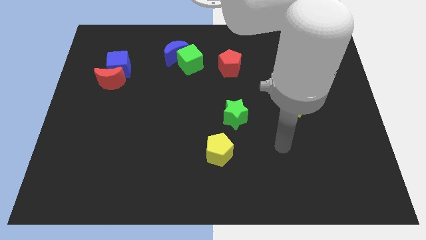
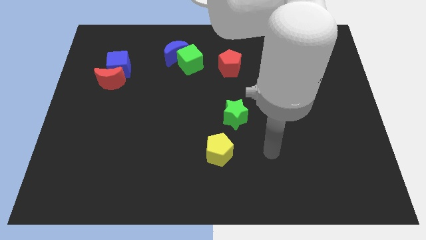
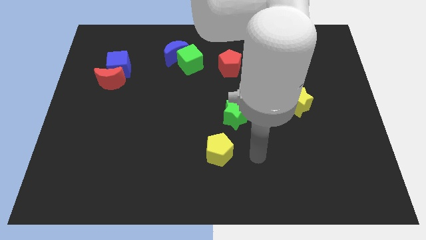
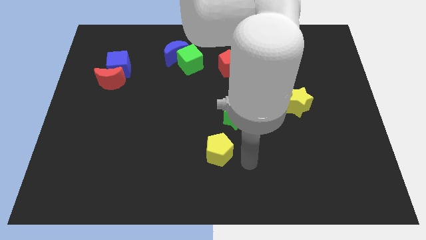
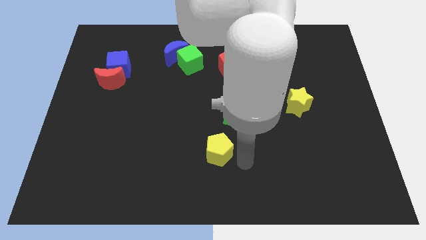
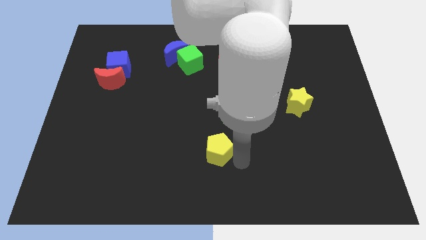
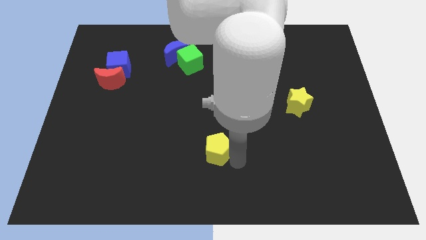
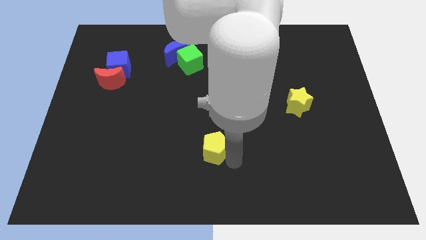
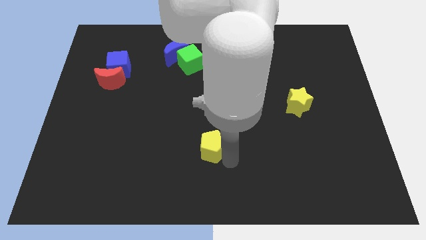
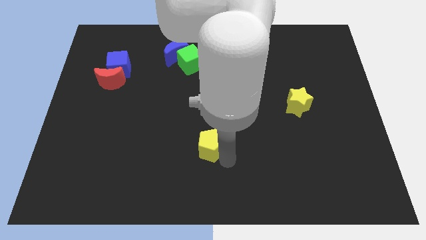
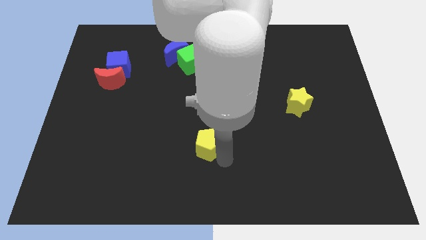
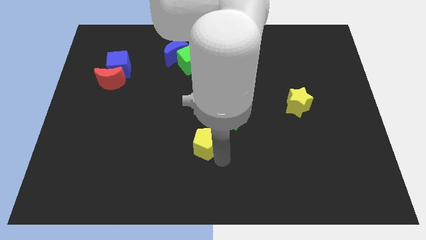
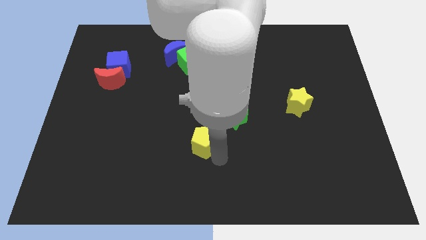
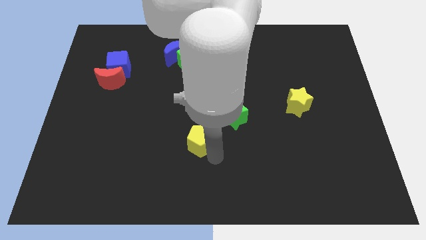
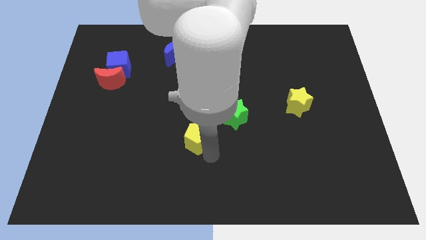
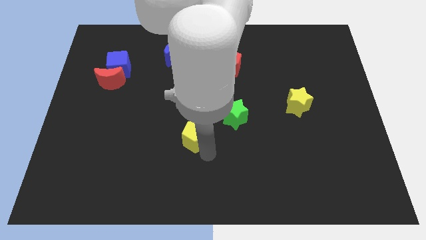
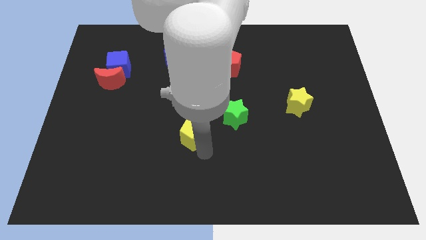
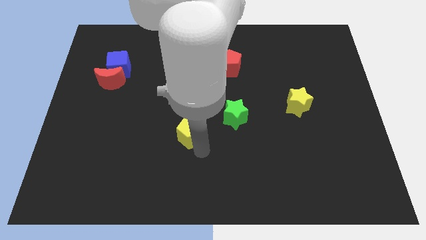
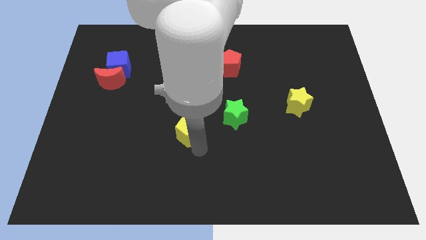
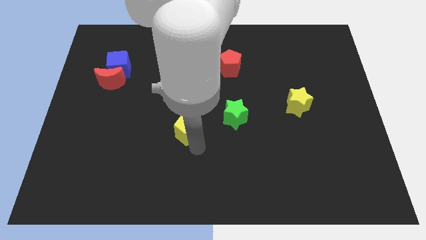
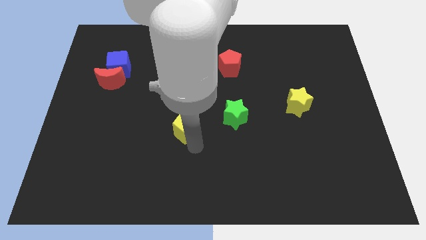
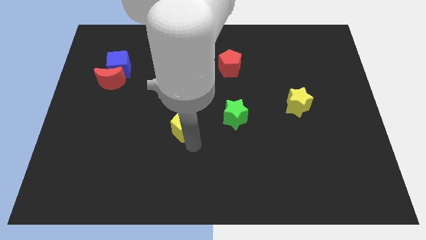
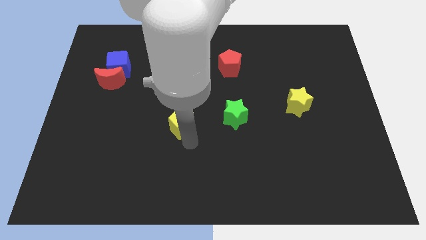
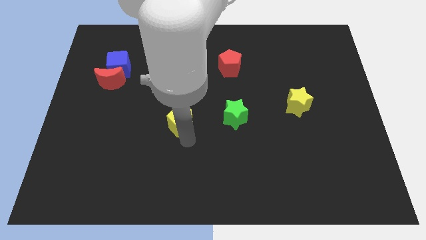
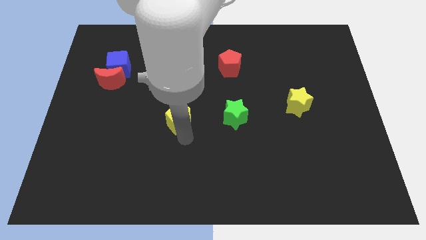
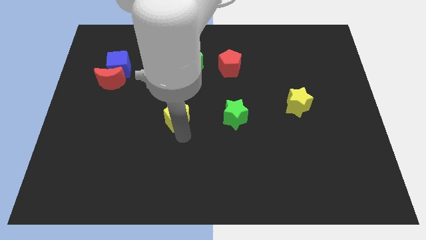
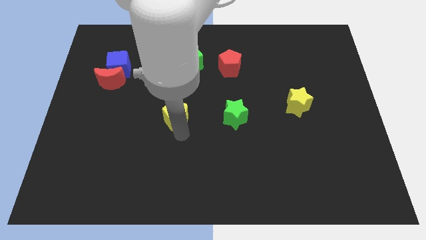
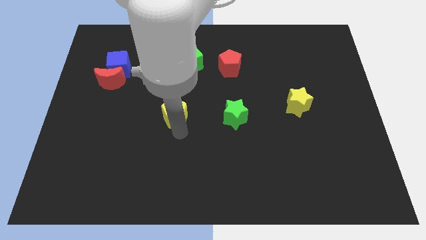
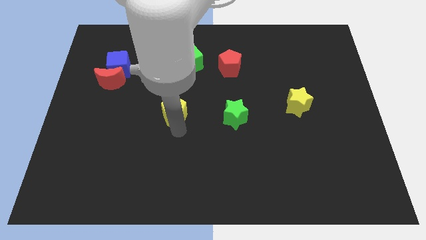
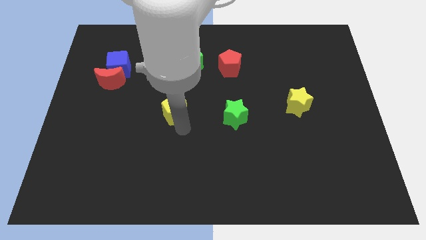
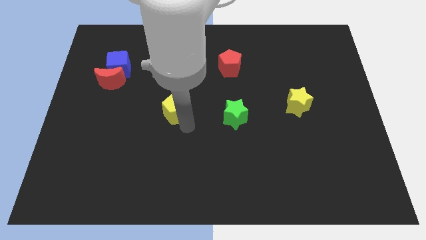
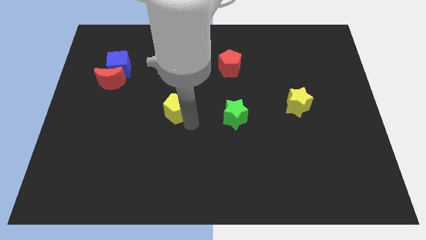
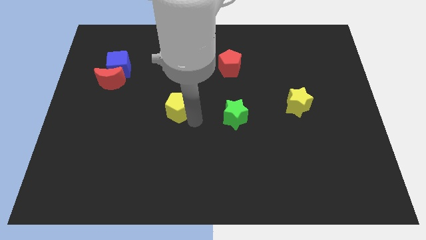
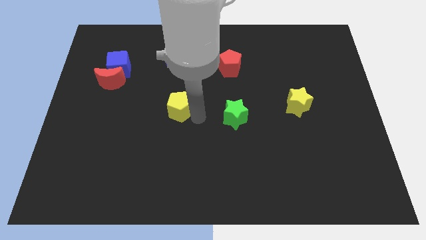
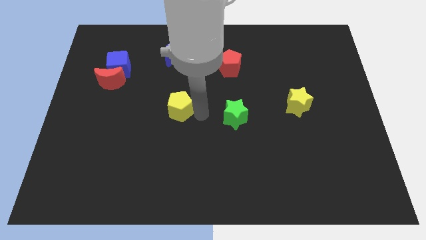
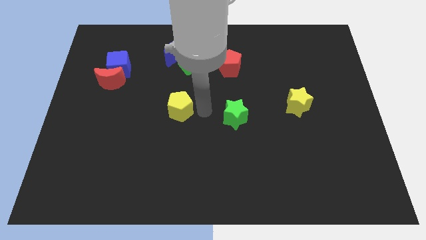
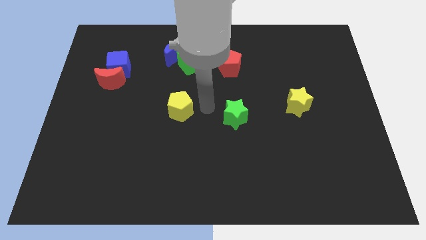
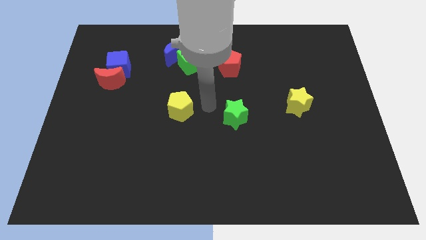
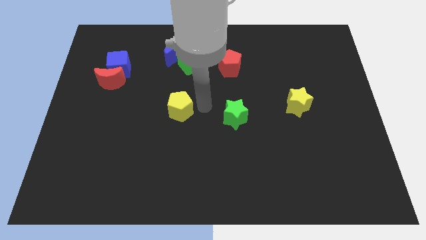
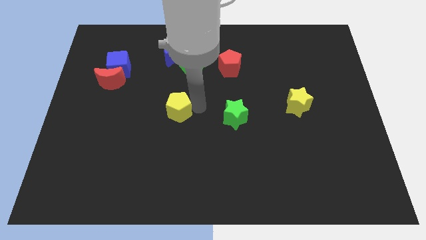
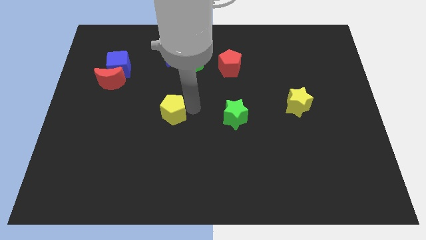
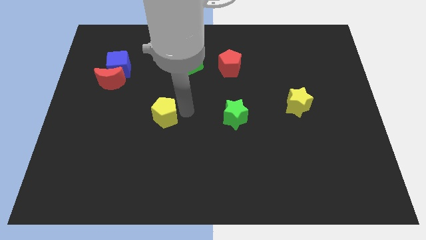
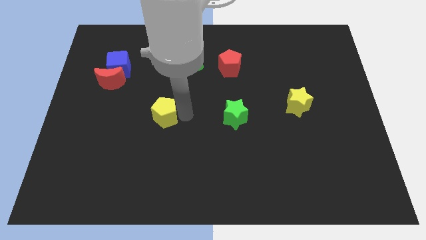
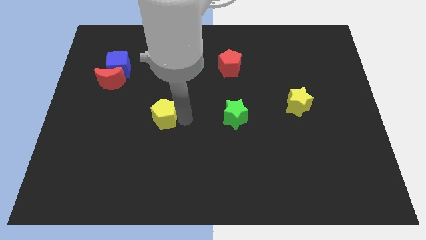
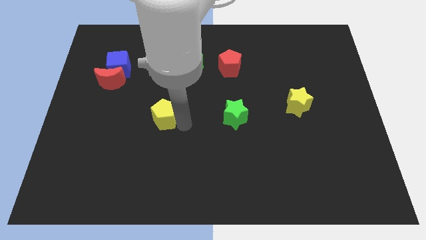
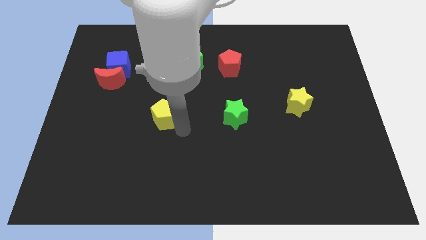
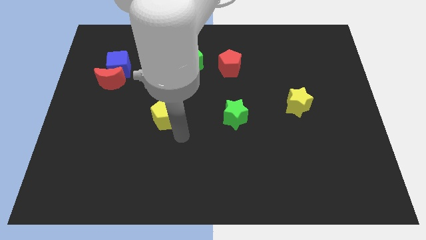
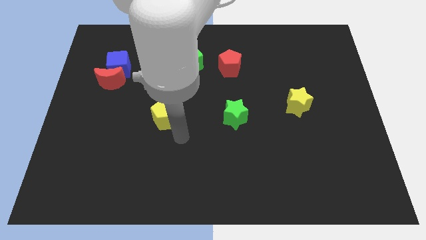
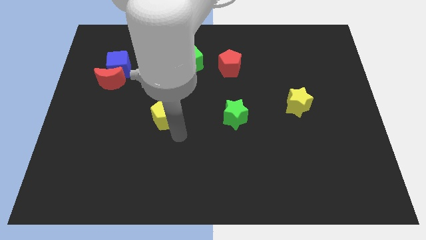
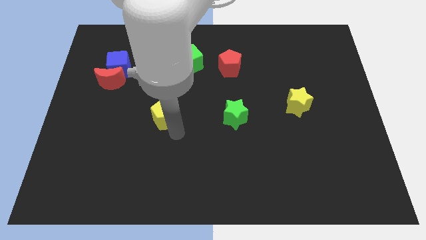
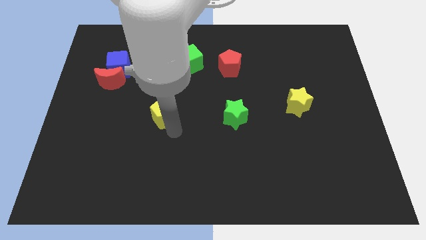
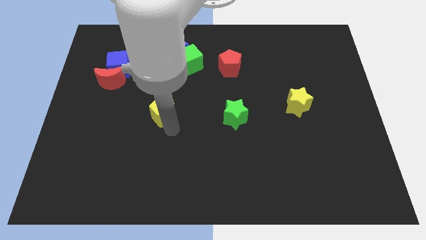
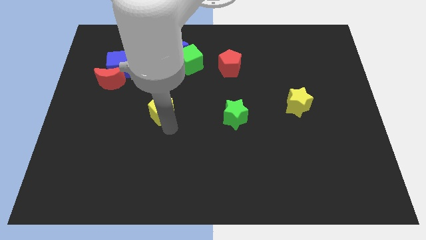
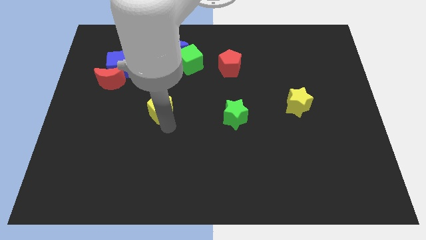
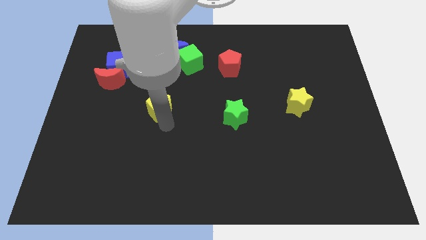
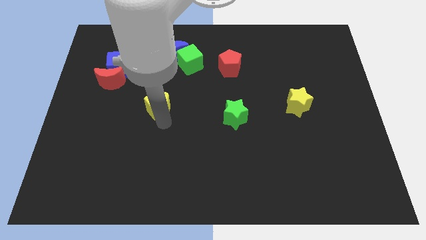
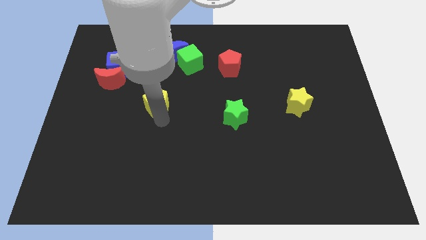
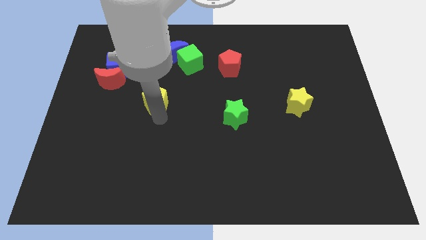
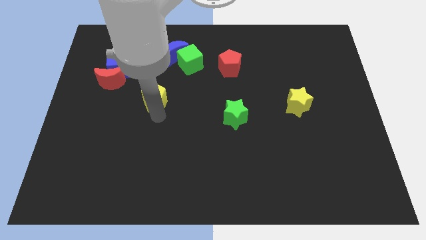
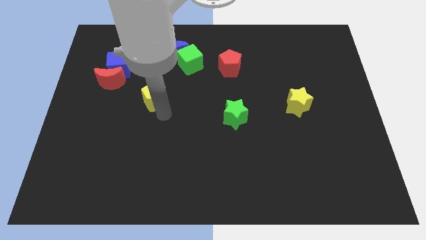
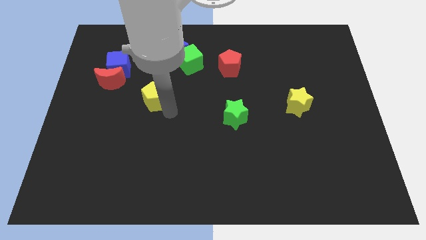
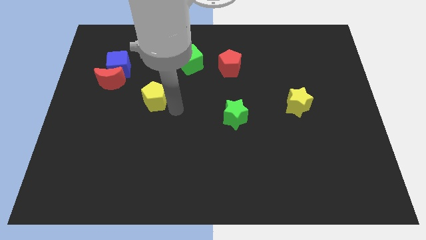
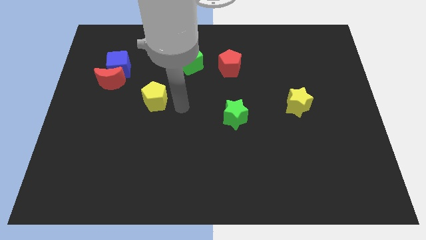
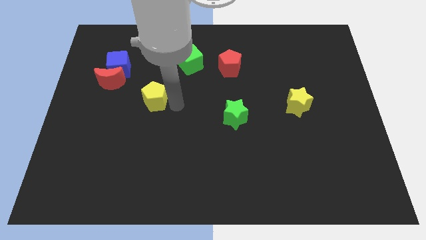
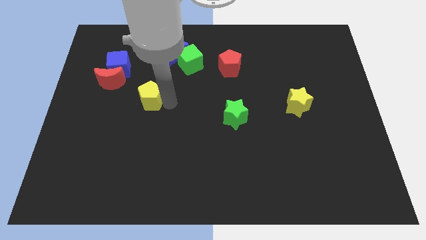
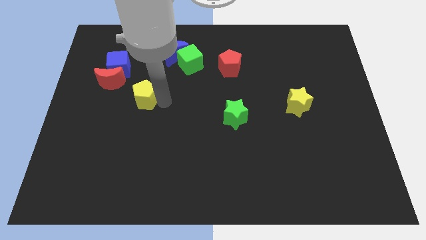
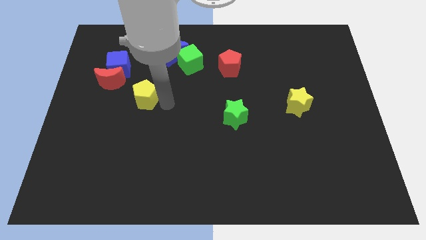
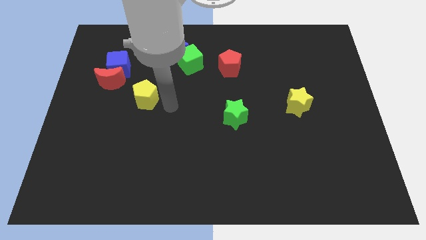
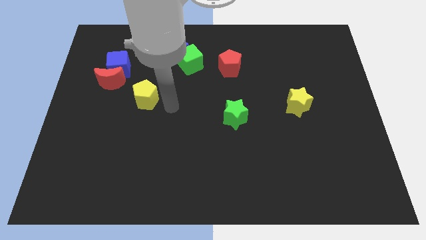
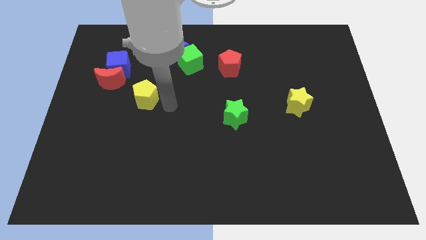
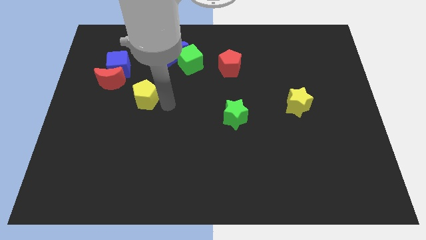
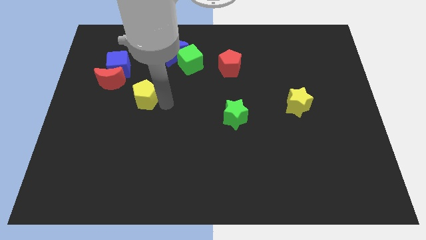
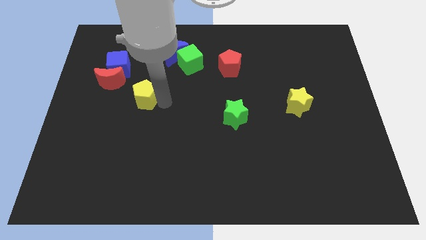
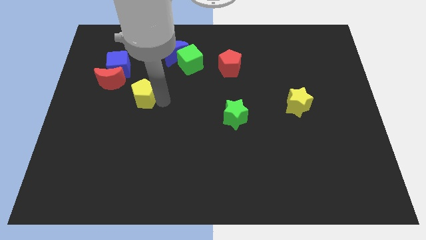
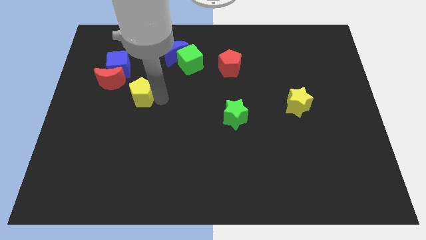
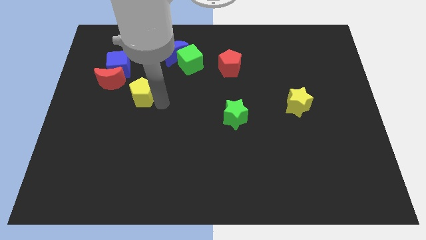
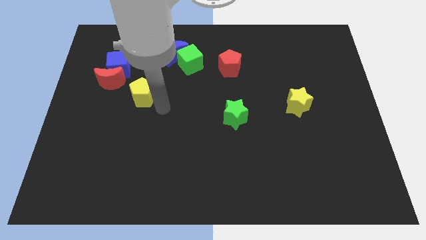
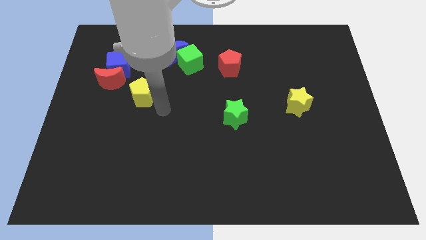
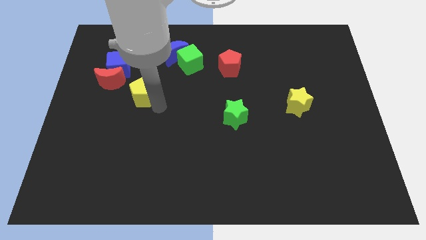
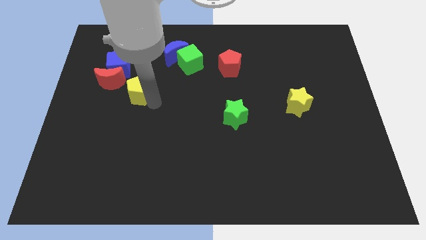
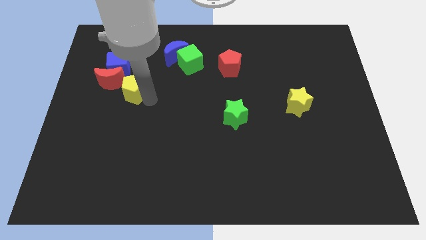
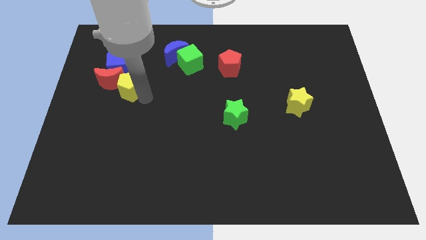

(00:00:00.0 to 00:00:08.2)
push the yellow pentagon next to the red moon
